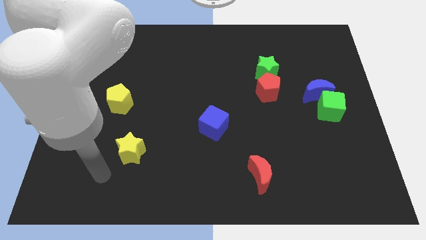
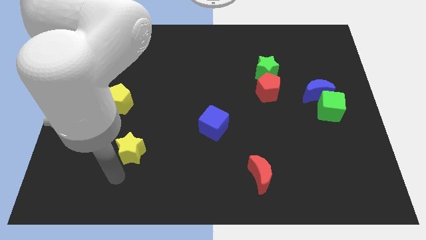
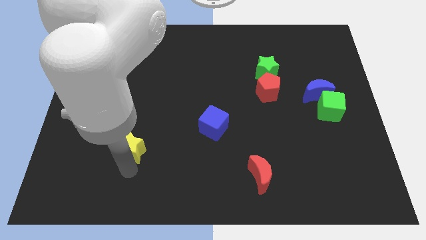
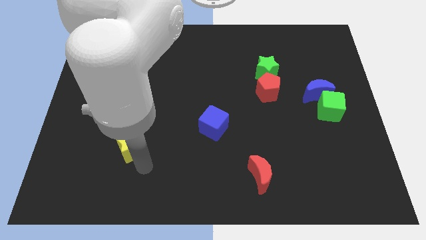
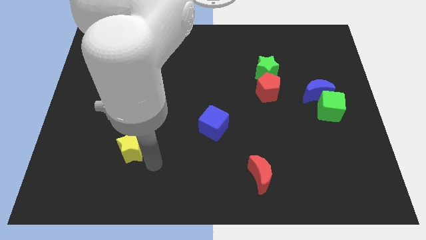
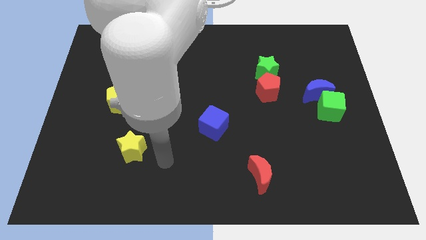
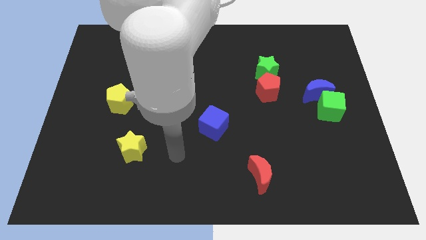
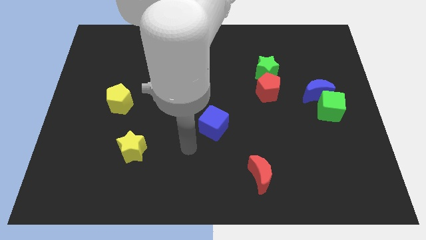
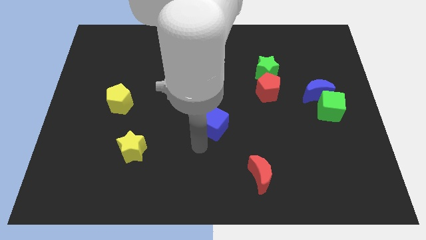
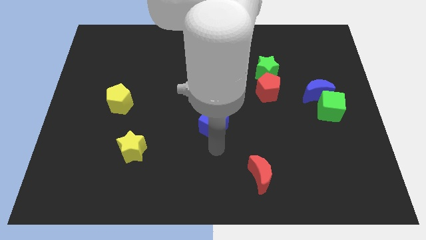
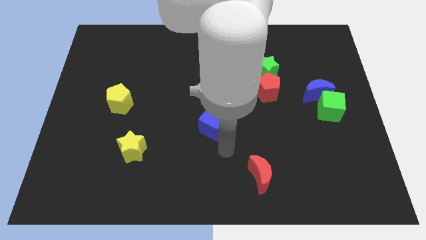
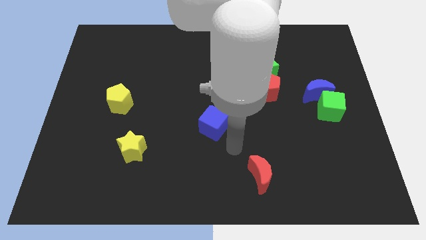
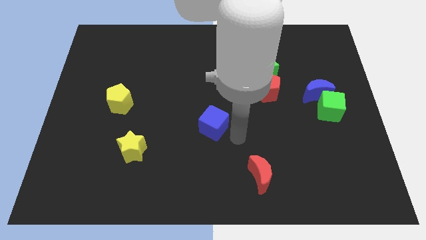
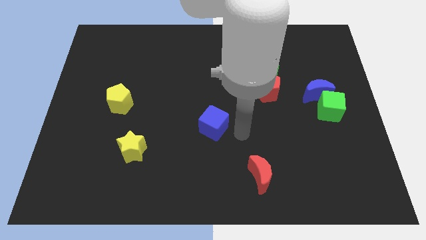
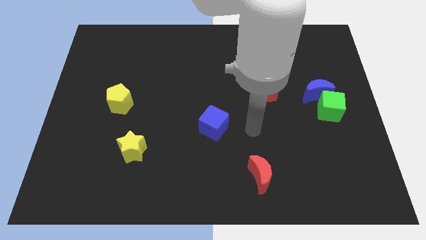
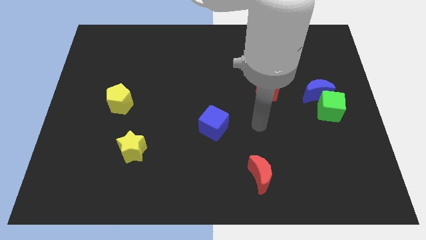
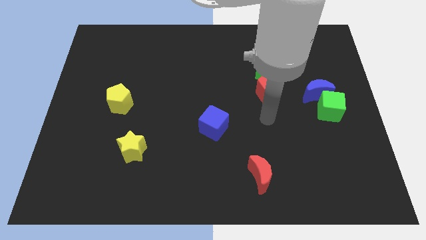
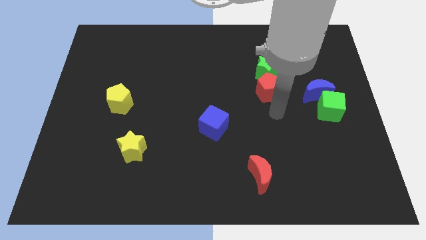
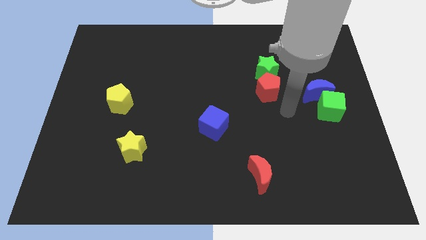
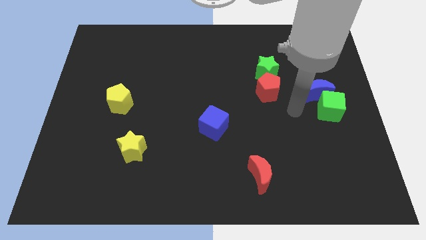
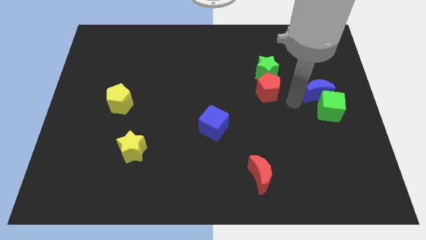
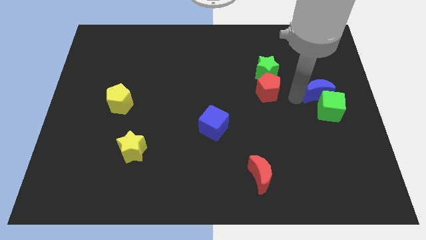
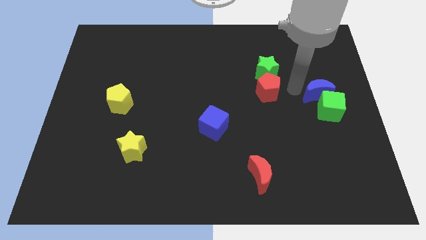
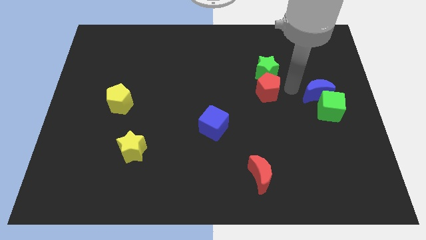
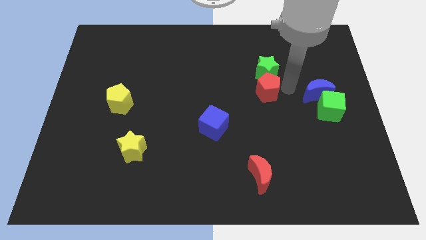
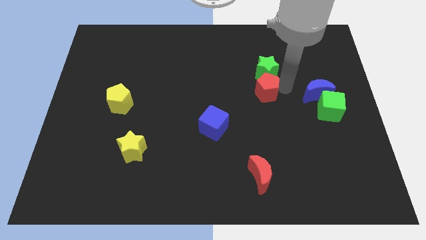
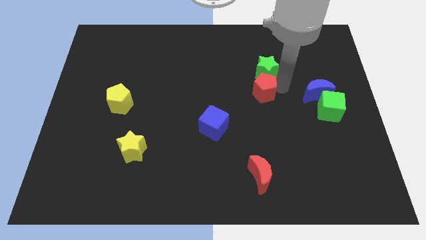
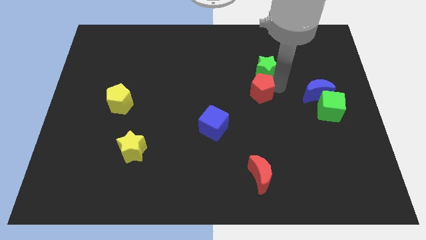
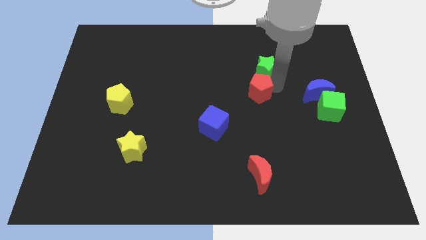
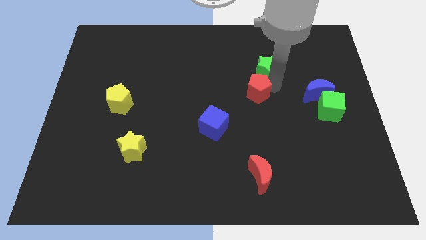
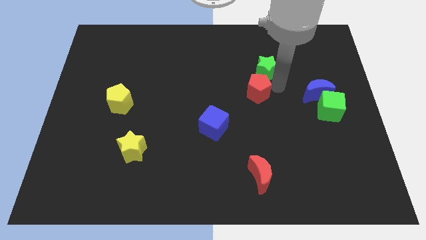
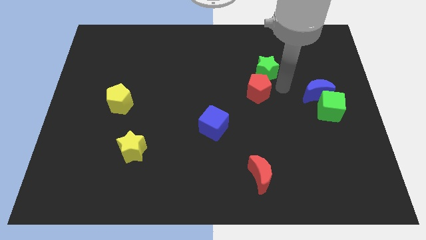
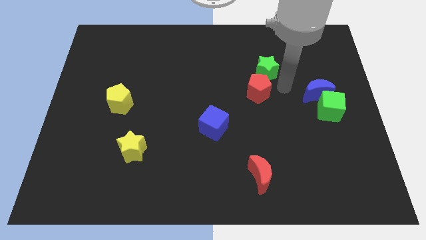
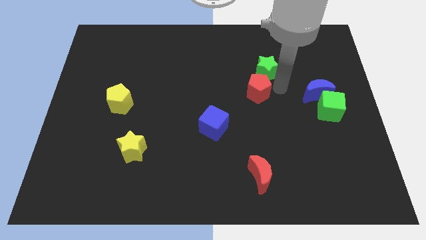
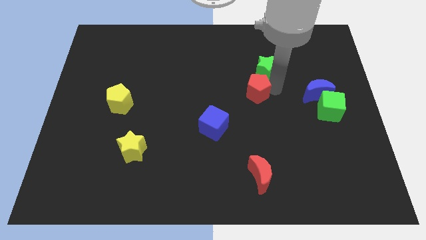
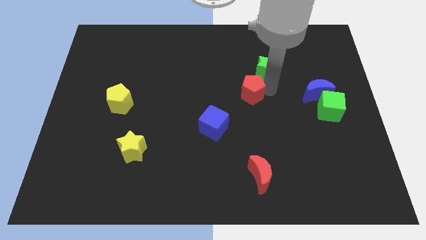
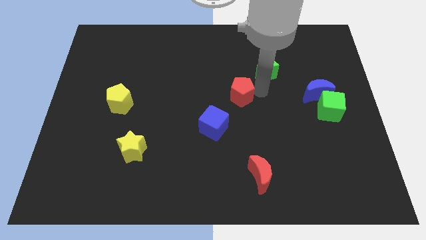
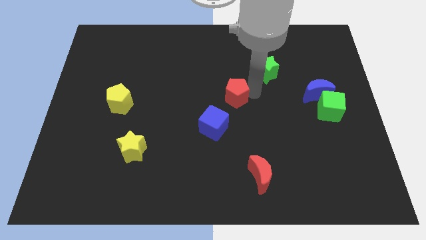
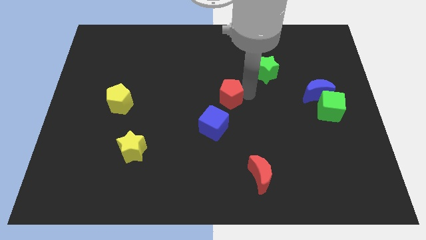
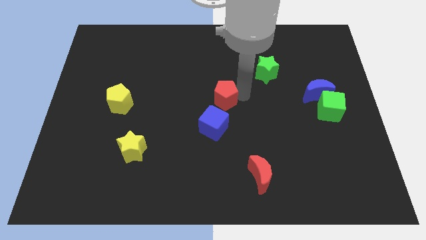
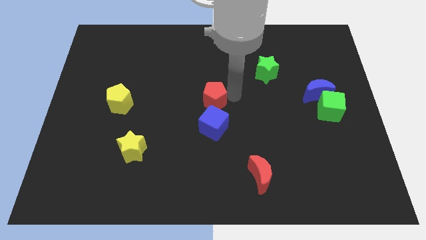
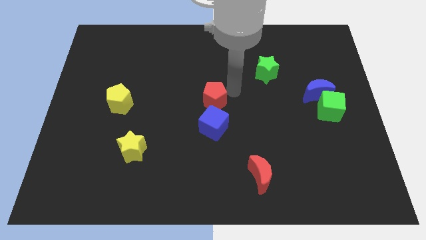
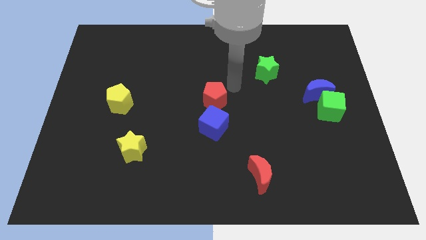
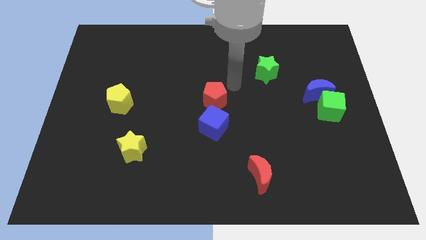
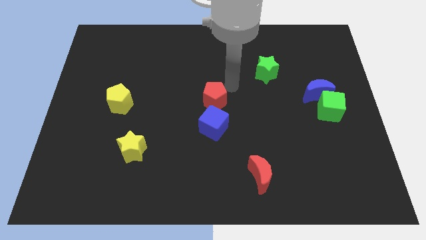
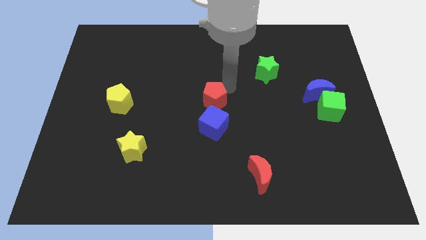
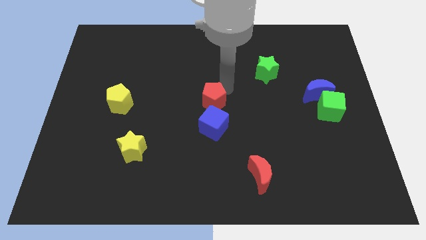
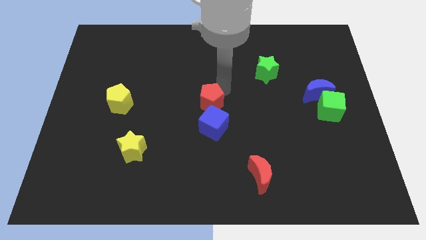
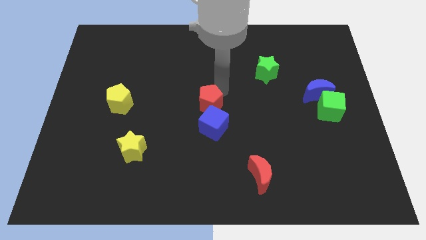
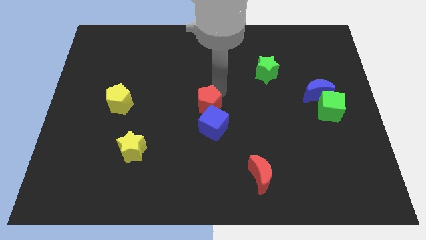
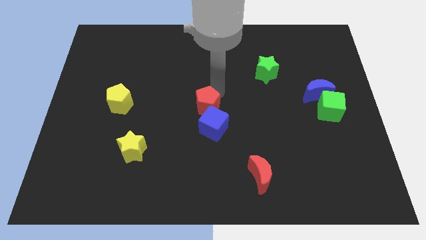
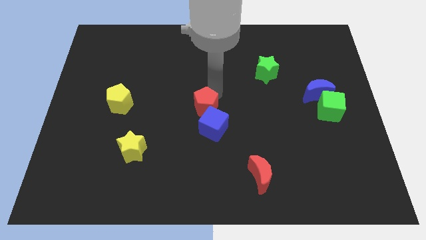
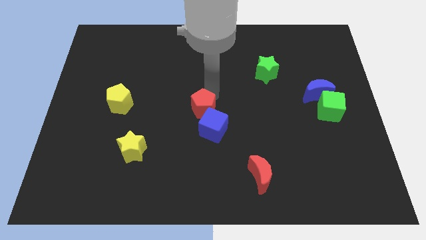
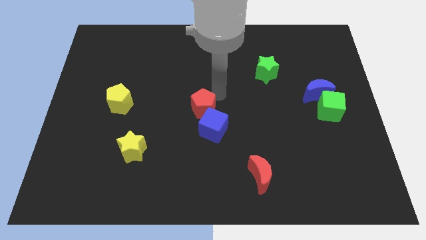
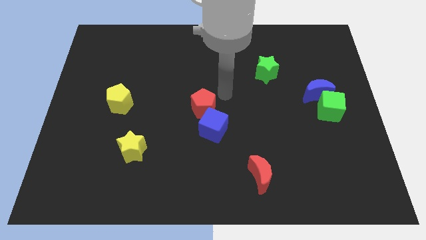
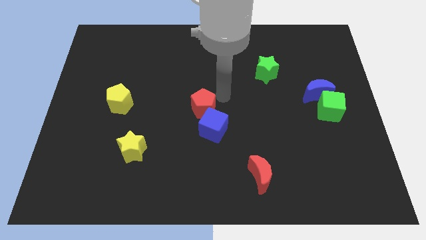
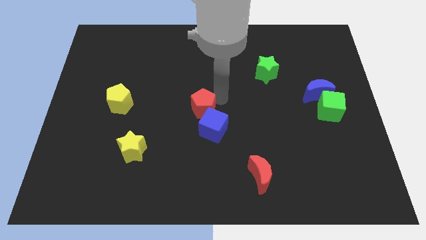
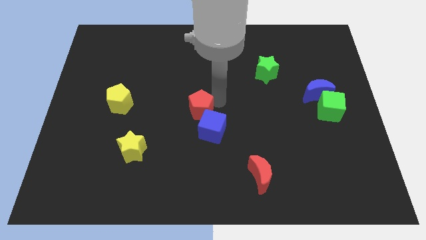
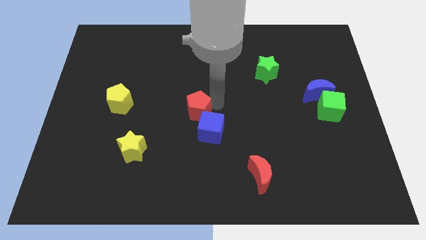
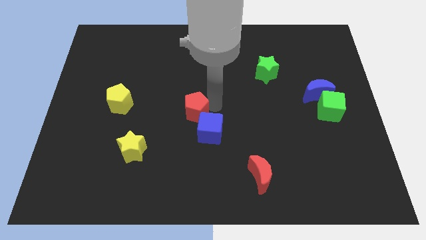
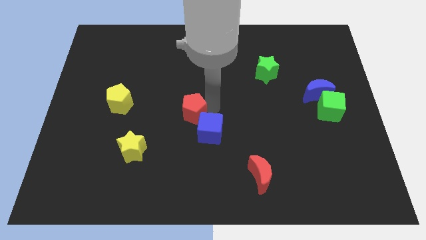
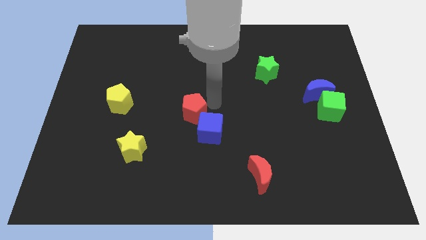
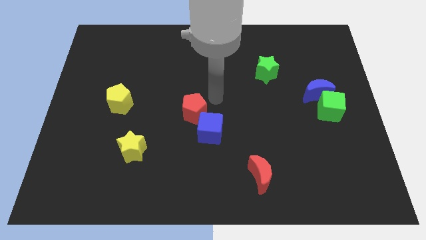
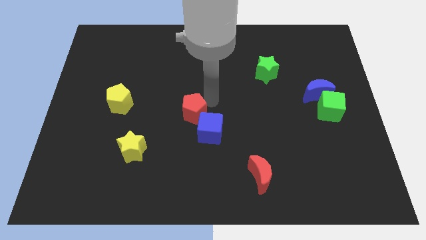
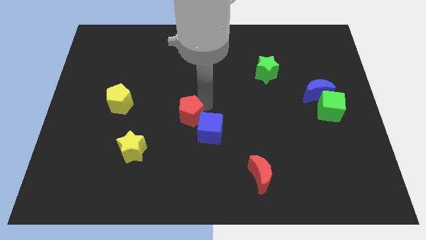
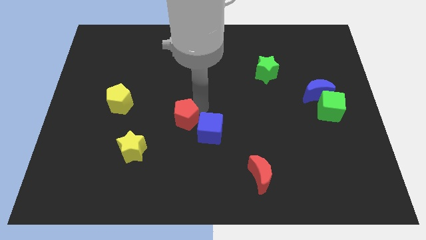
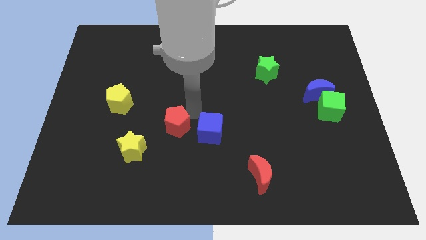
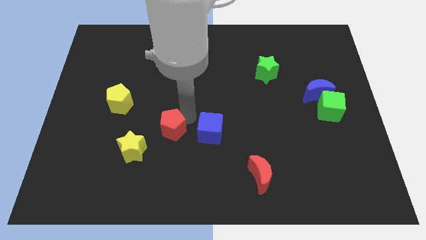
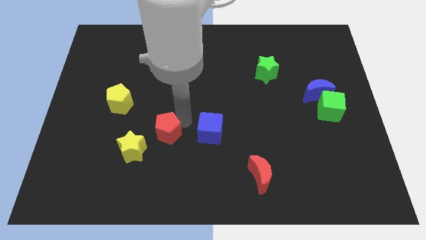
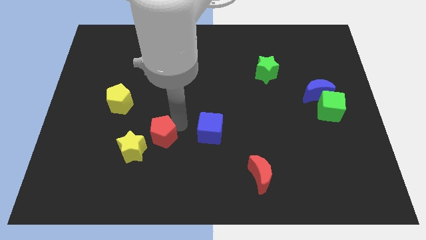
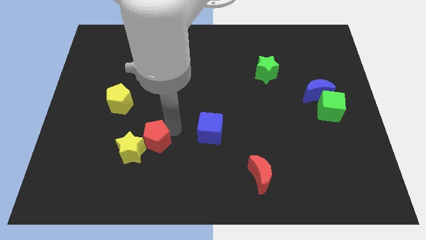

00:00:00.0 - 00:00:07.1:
move the red pentagon to the yellow star
